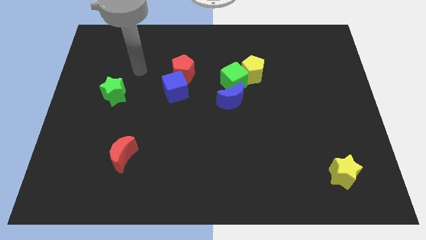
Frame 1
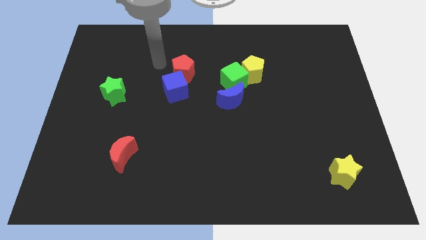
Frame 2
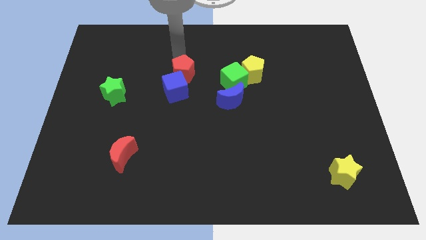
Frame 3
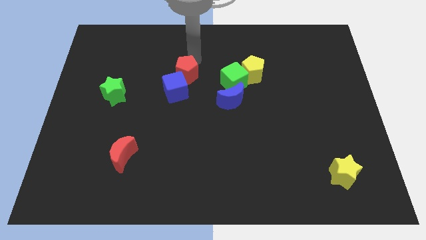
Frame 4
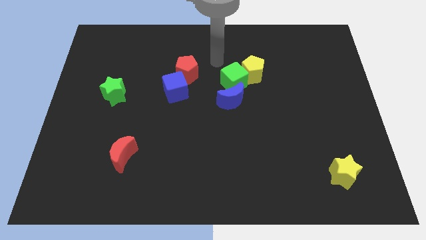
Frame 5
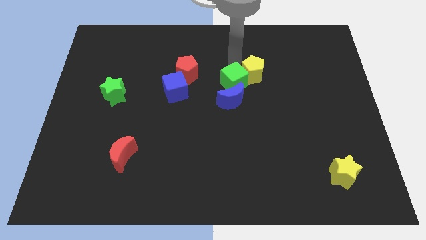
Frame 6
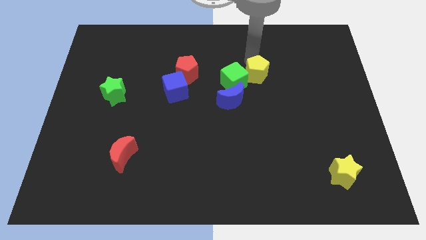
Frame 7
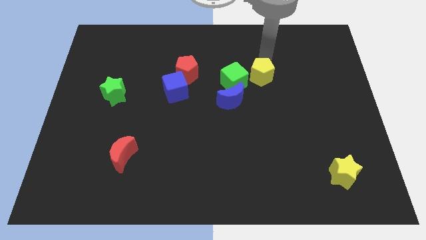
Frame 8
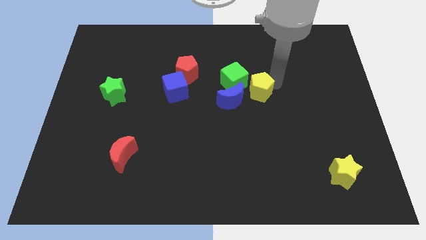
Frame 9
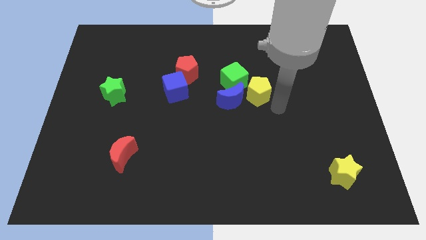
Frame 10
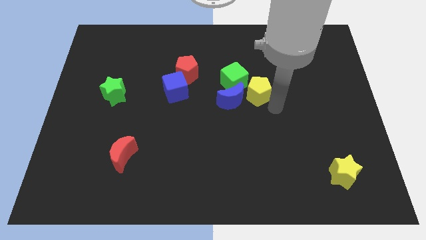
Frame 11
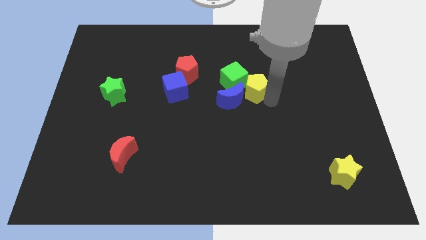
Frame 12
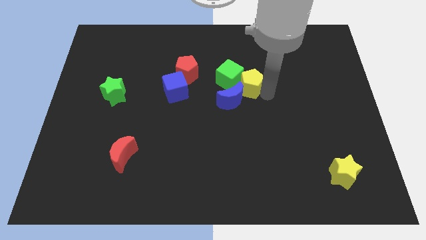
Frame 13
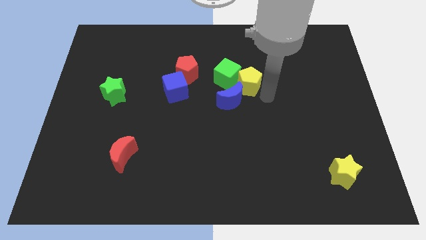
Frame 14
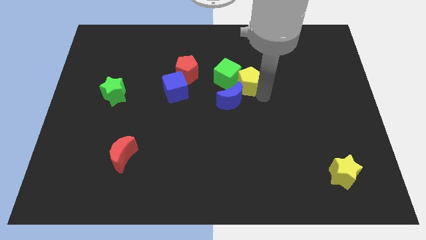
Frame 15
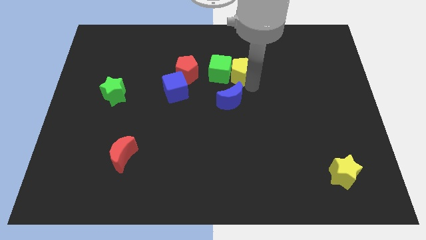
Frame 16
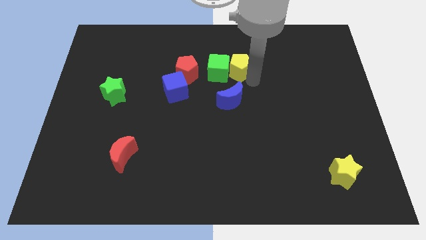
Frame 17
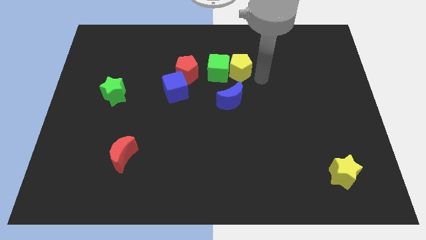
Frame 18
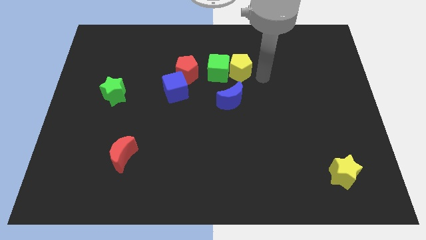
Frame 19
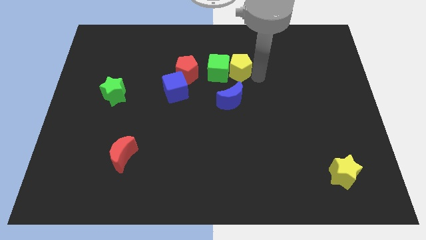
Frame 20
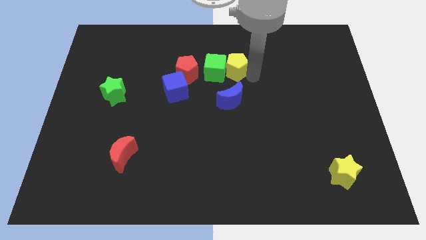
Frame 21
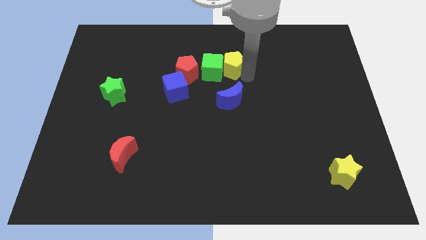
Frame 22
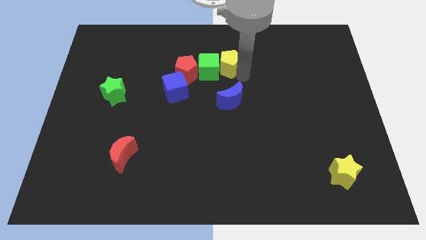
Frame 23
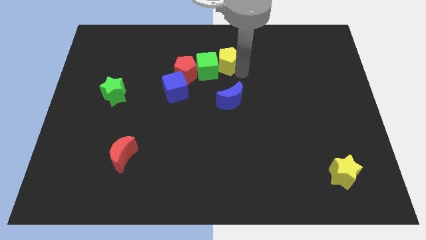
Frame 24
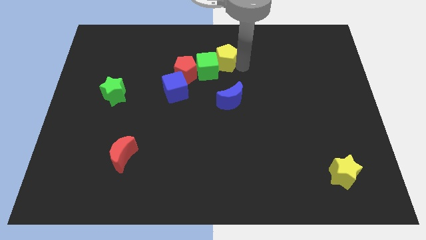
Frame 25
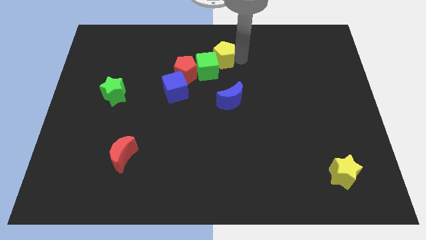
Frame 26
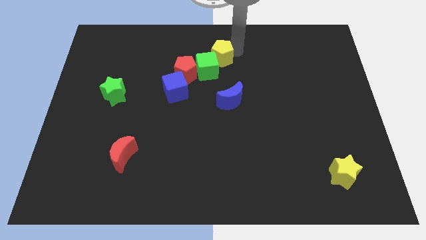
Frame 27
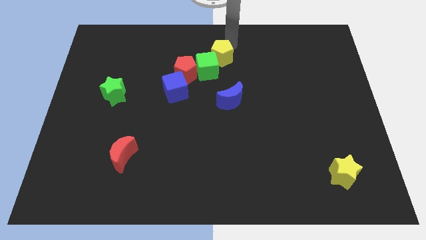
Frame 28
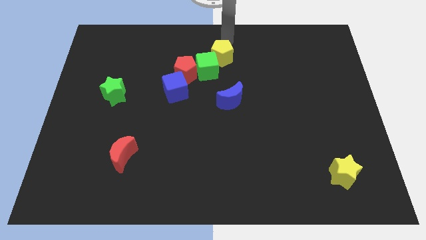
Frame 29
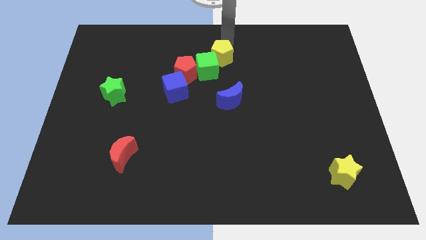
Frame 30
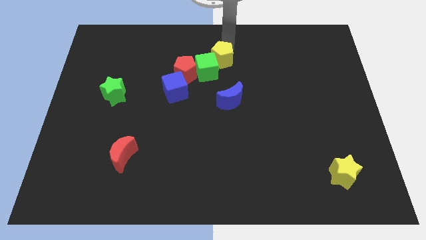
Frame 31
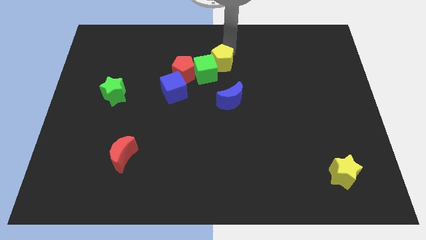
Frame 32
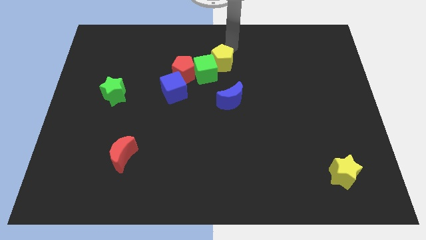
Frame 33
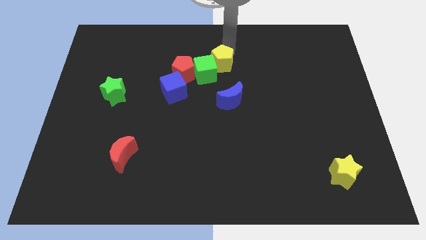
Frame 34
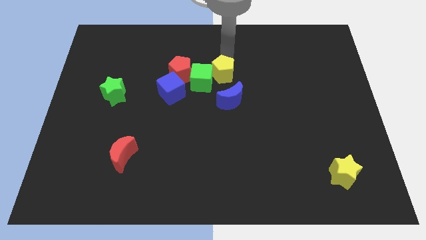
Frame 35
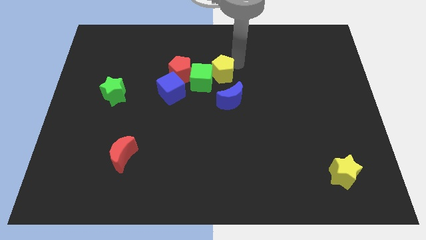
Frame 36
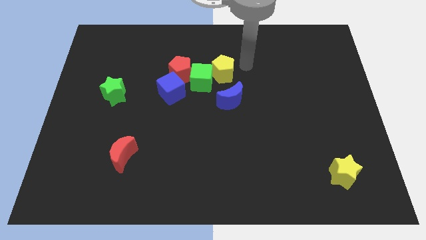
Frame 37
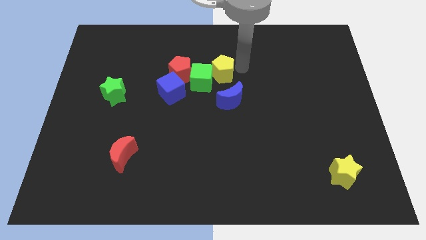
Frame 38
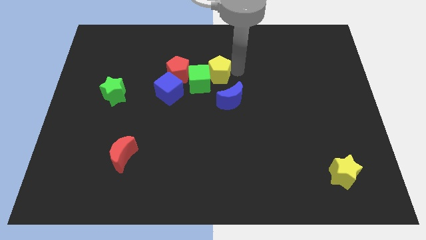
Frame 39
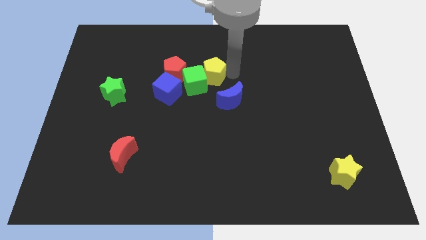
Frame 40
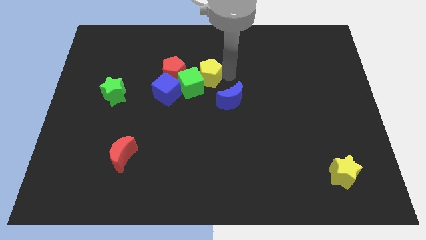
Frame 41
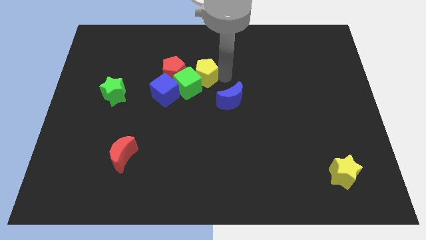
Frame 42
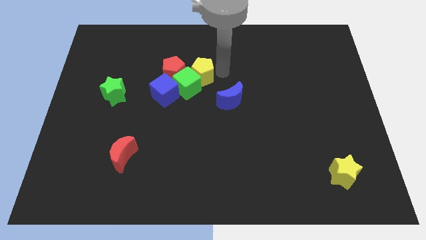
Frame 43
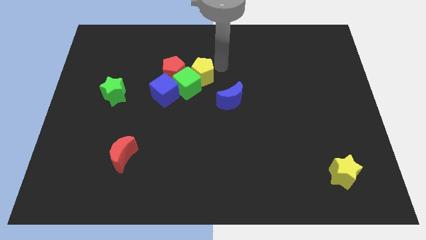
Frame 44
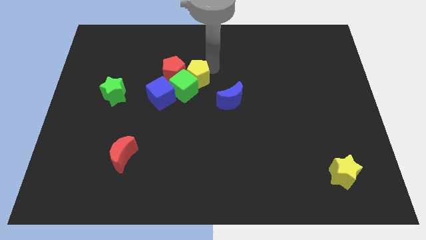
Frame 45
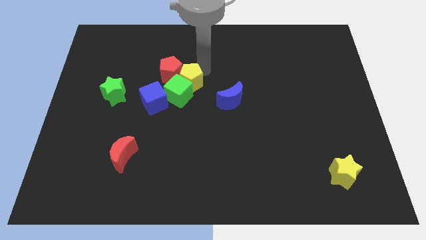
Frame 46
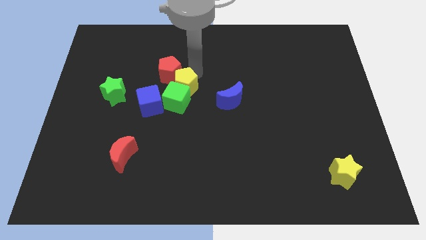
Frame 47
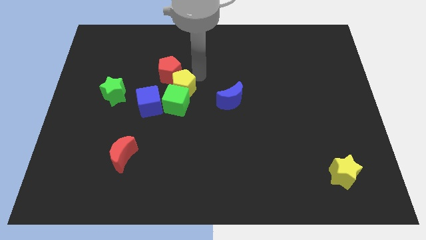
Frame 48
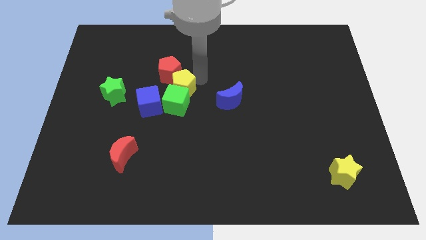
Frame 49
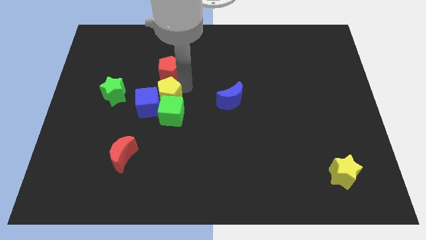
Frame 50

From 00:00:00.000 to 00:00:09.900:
put the yellow pentagon close to the blue cube

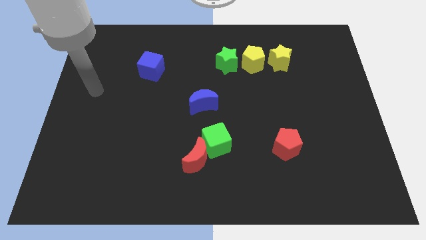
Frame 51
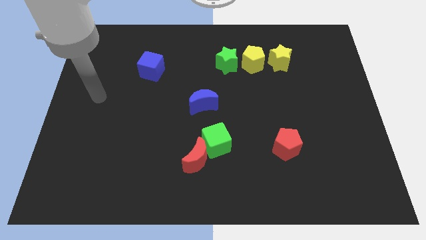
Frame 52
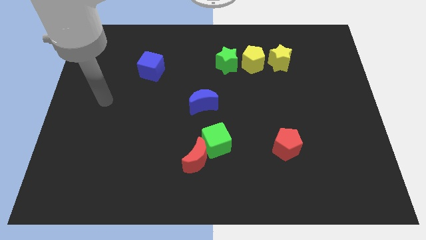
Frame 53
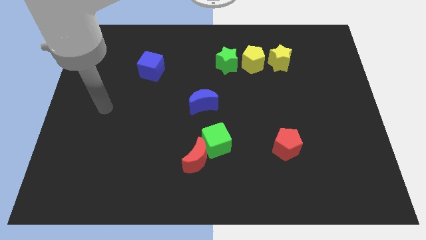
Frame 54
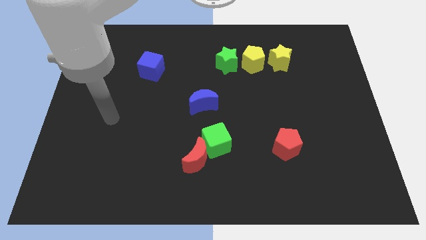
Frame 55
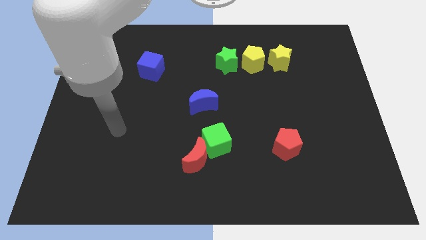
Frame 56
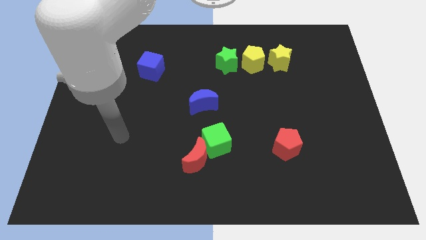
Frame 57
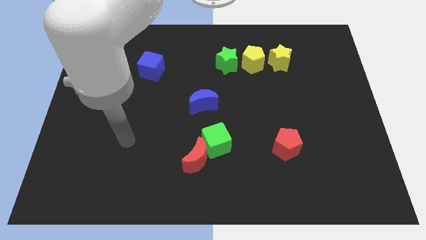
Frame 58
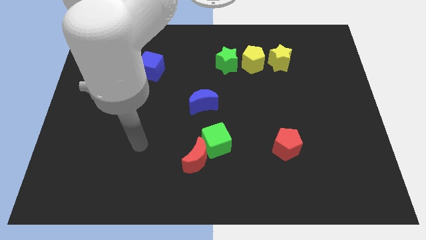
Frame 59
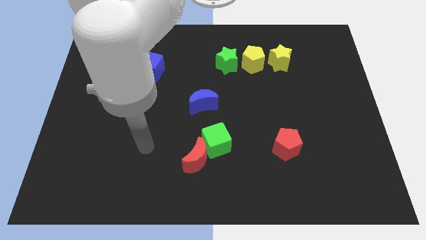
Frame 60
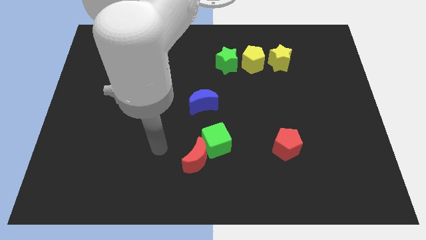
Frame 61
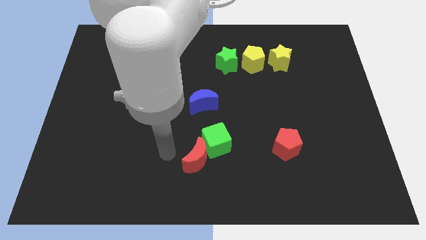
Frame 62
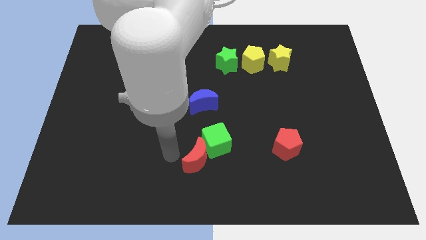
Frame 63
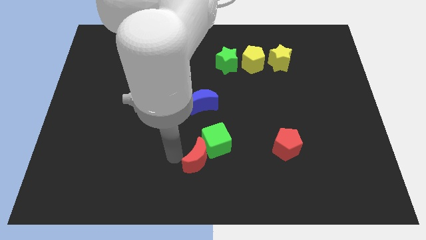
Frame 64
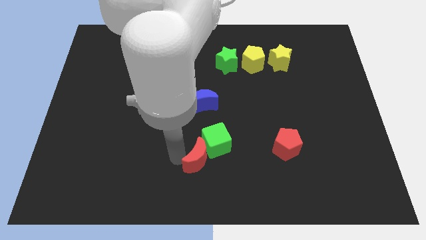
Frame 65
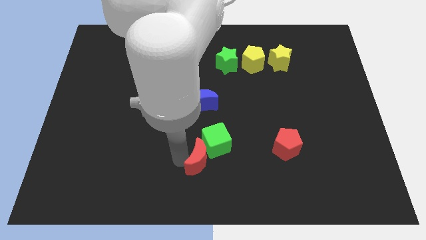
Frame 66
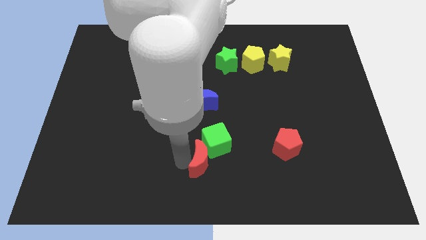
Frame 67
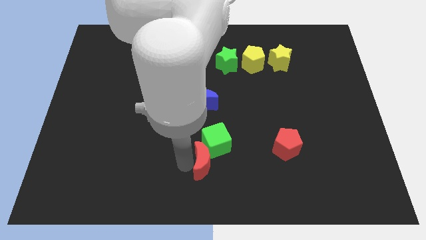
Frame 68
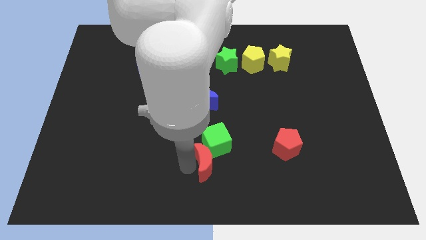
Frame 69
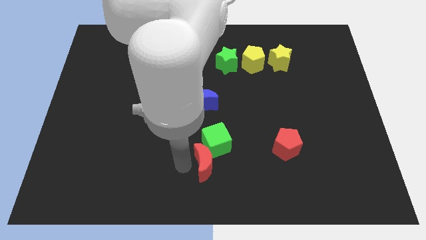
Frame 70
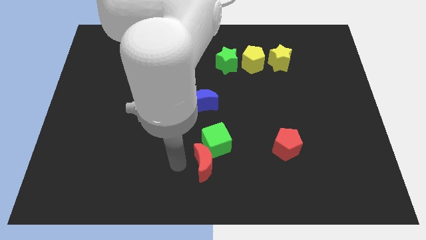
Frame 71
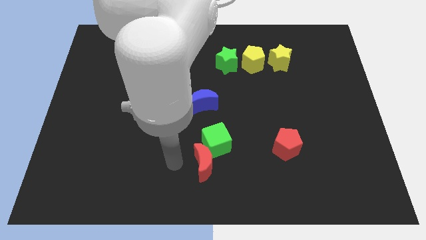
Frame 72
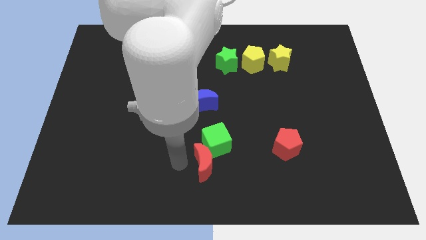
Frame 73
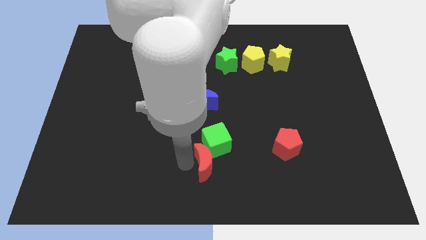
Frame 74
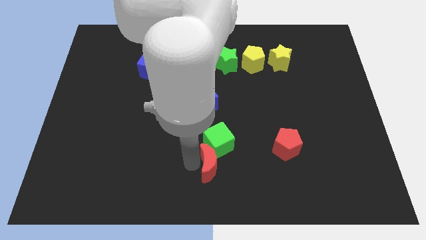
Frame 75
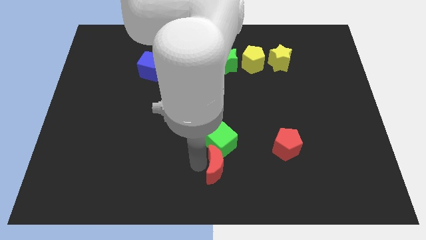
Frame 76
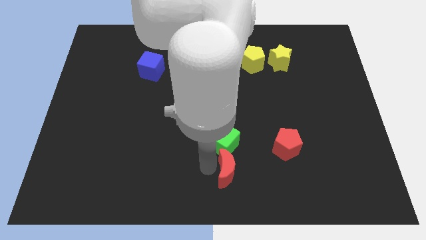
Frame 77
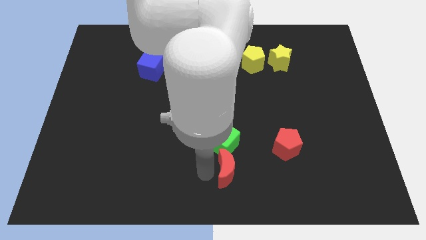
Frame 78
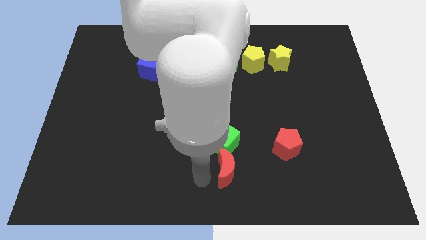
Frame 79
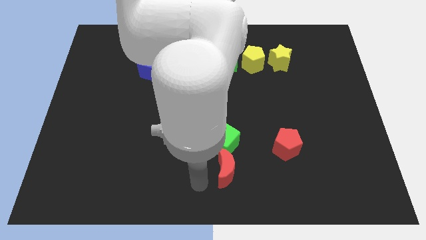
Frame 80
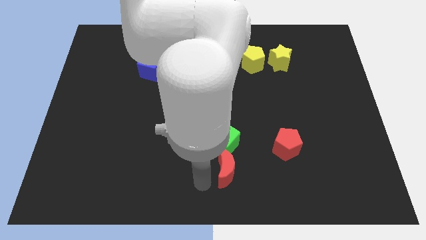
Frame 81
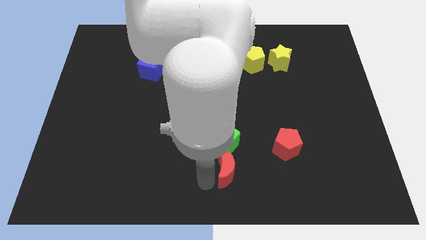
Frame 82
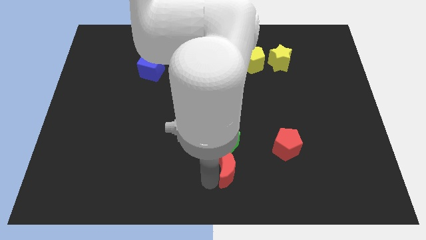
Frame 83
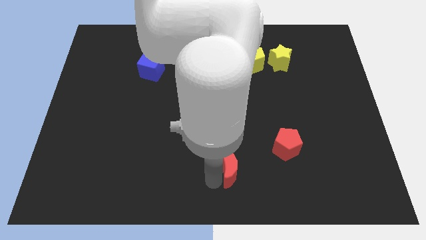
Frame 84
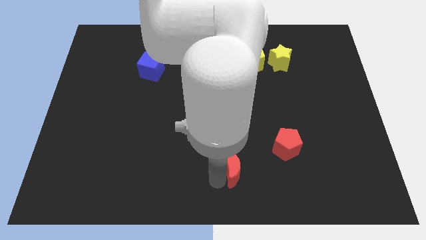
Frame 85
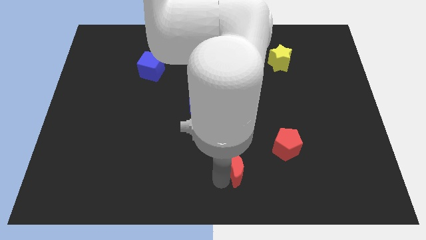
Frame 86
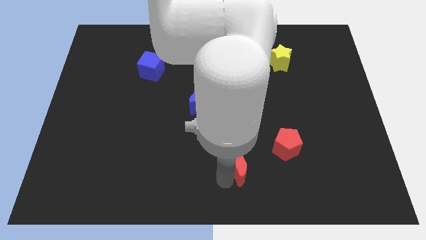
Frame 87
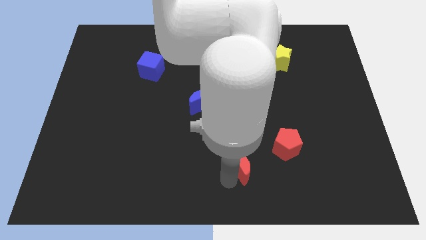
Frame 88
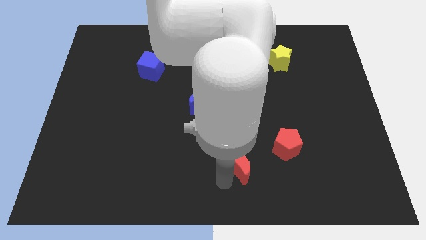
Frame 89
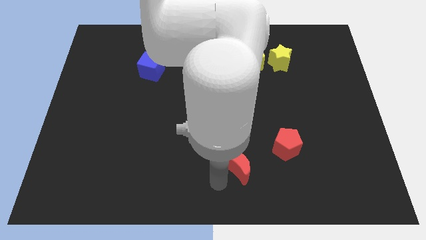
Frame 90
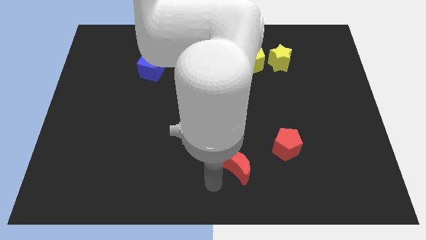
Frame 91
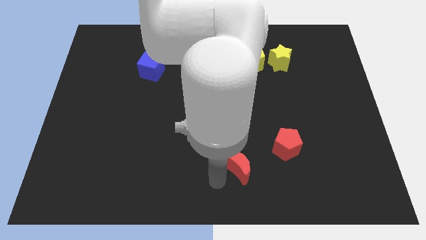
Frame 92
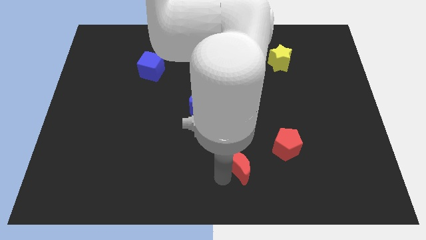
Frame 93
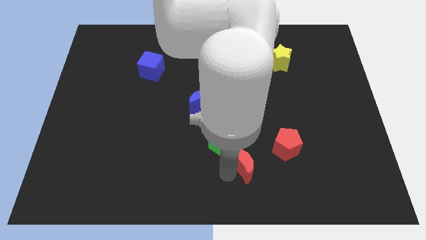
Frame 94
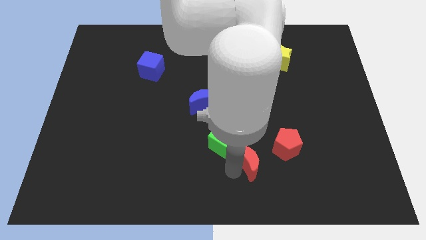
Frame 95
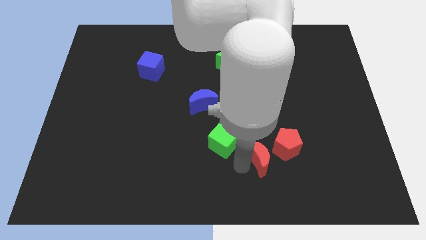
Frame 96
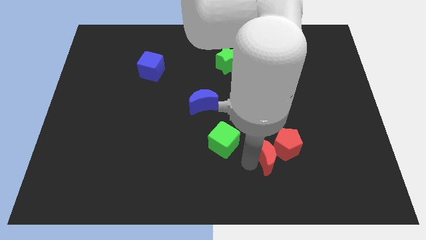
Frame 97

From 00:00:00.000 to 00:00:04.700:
move the red moon next to the red pentagon
